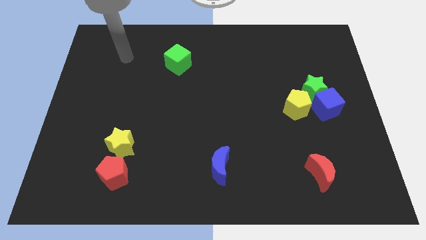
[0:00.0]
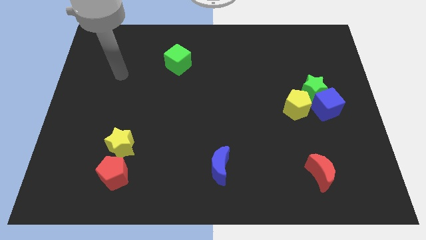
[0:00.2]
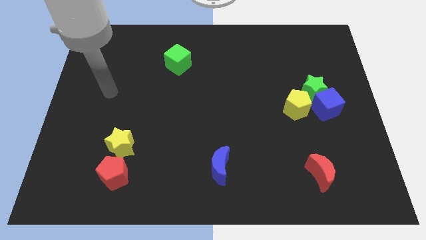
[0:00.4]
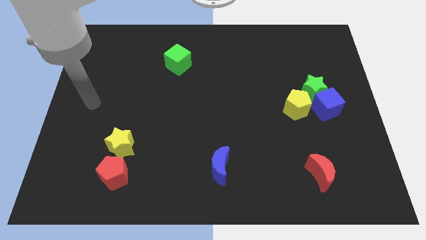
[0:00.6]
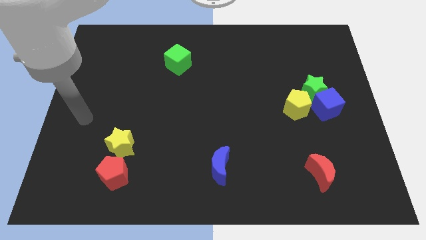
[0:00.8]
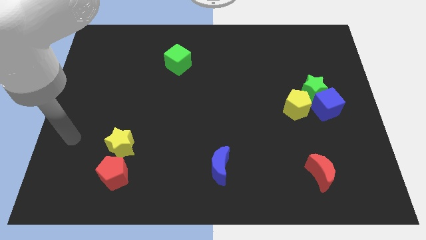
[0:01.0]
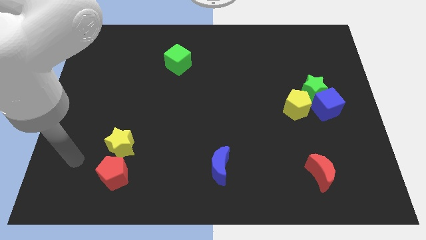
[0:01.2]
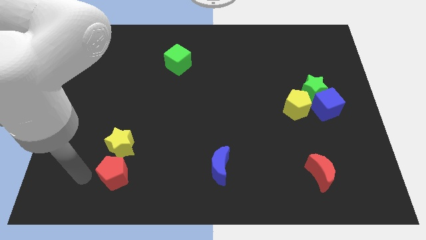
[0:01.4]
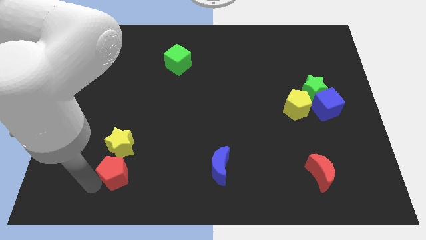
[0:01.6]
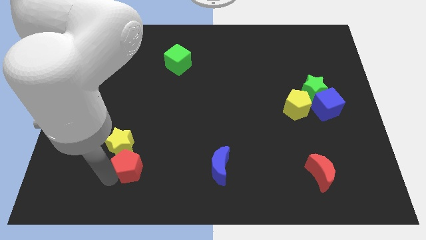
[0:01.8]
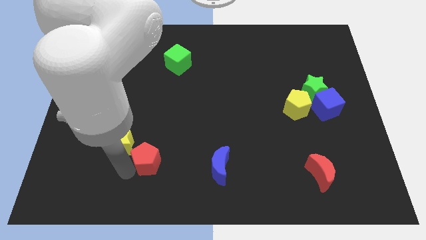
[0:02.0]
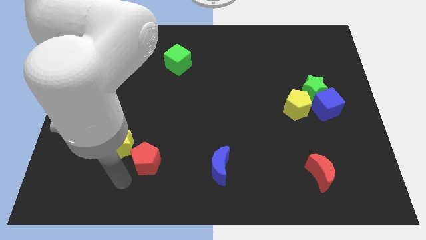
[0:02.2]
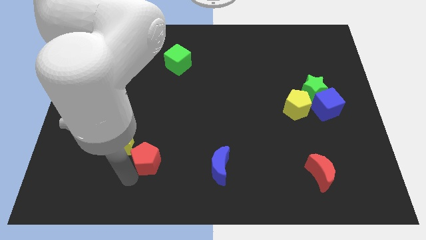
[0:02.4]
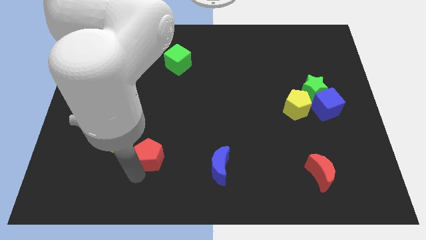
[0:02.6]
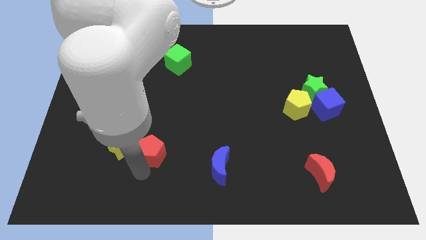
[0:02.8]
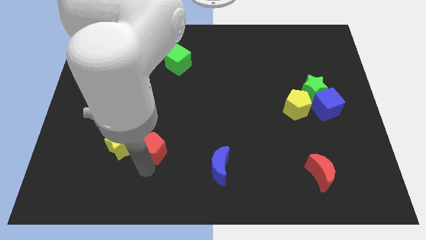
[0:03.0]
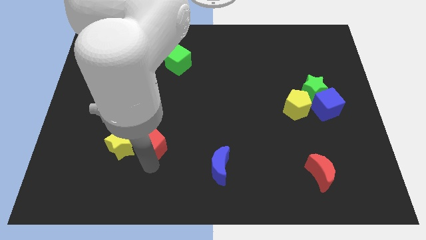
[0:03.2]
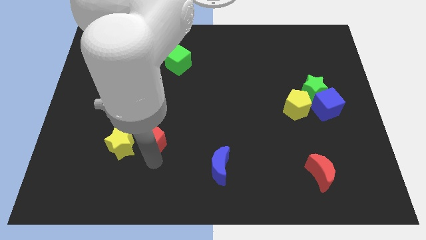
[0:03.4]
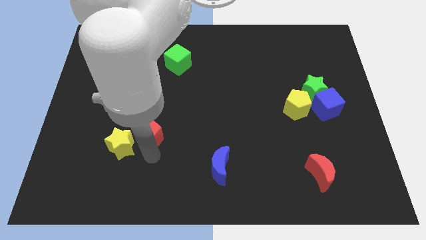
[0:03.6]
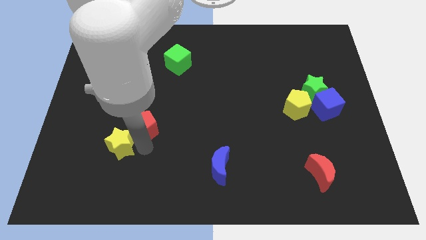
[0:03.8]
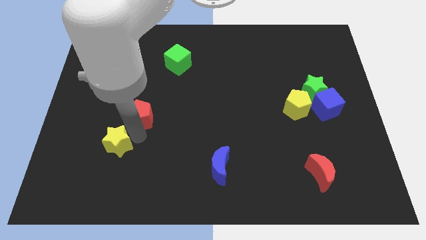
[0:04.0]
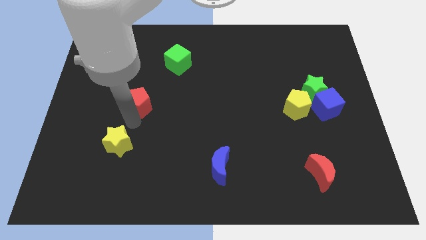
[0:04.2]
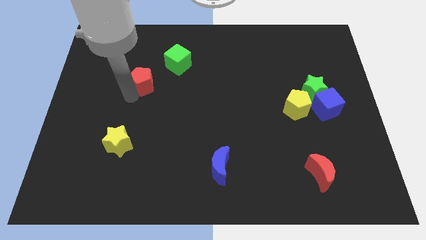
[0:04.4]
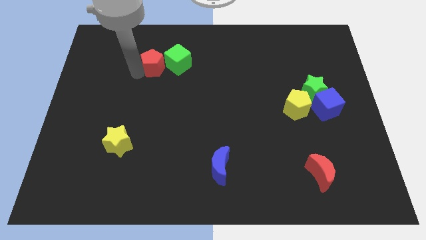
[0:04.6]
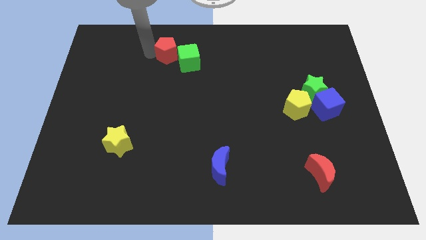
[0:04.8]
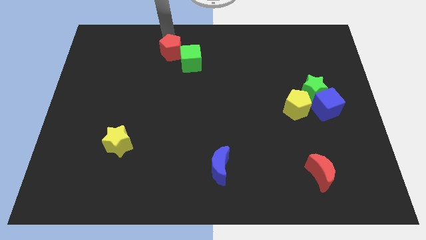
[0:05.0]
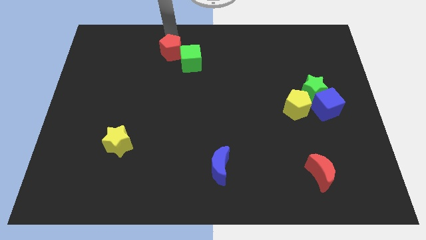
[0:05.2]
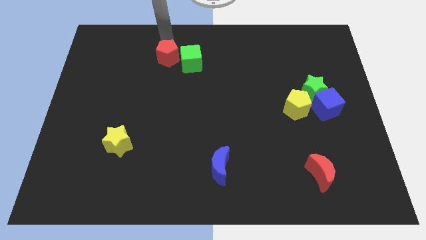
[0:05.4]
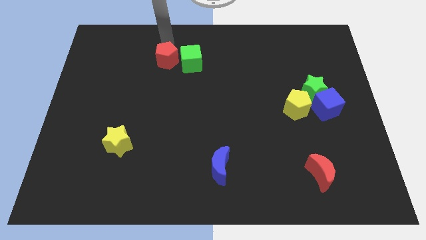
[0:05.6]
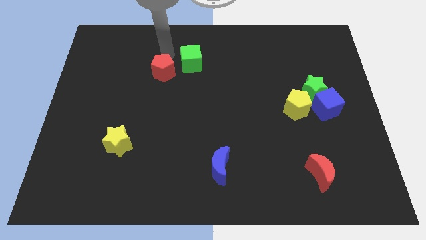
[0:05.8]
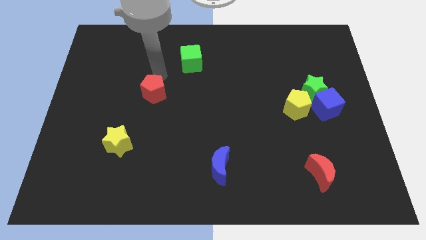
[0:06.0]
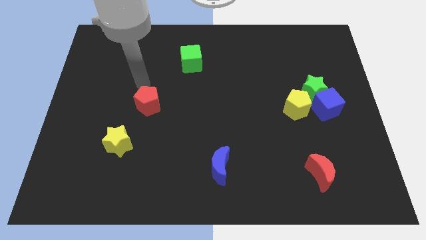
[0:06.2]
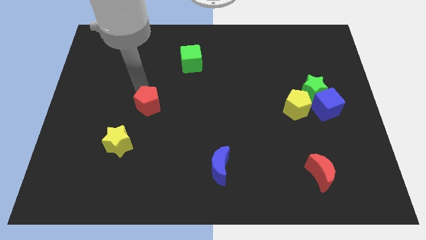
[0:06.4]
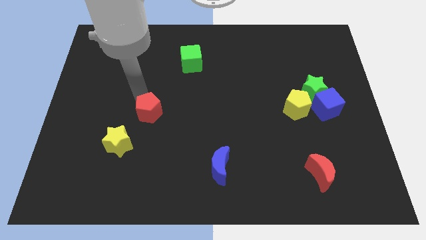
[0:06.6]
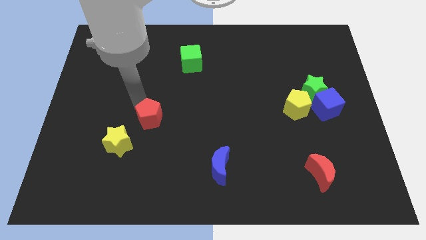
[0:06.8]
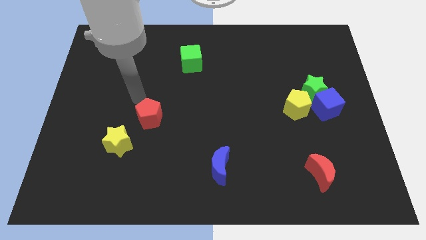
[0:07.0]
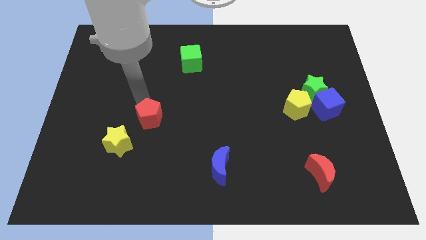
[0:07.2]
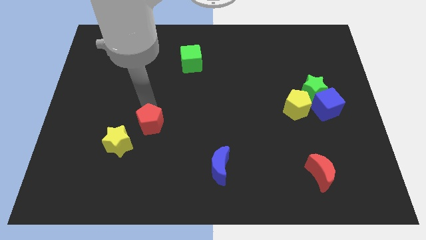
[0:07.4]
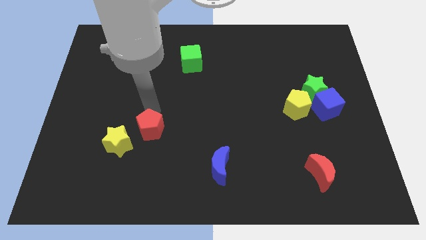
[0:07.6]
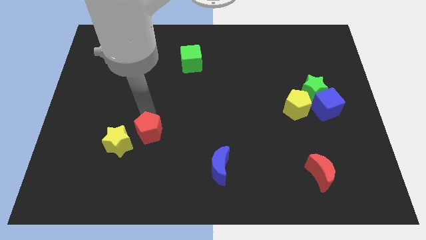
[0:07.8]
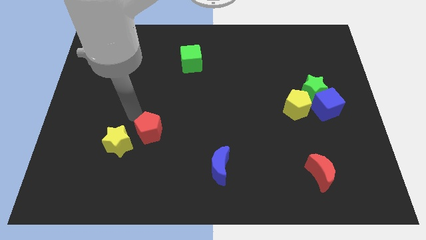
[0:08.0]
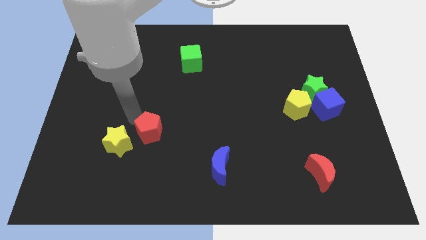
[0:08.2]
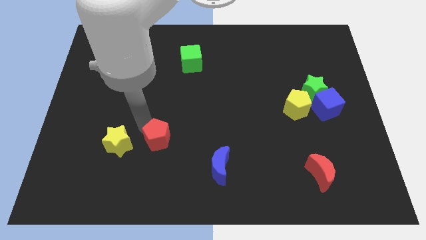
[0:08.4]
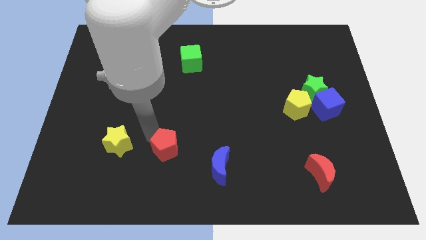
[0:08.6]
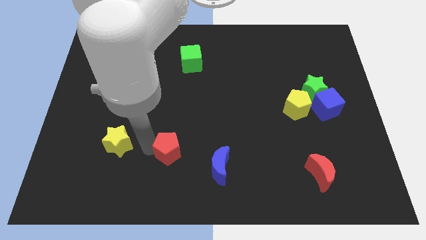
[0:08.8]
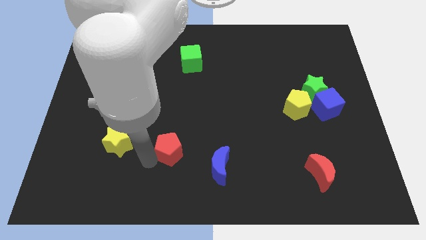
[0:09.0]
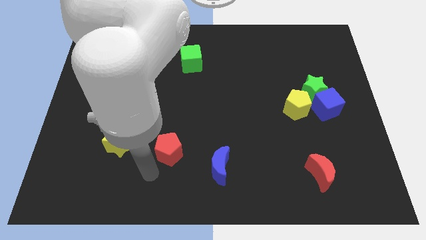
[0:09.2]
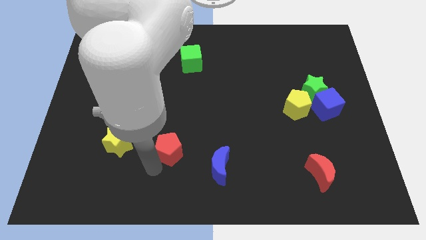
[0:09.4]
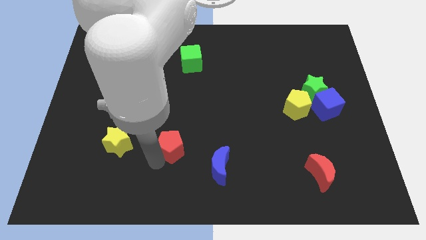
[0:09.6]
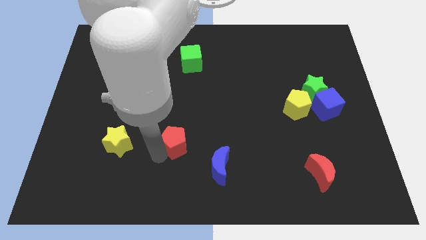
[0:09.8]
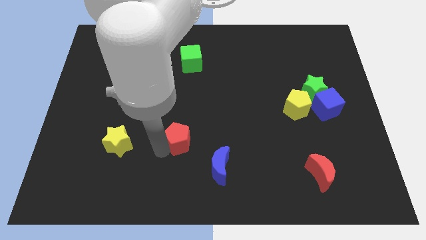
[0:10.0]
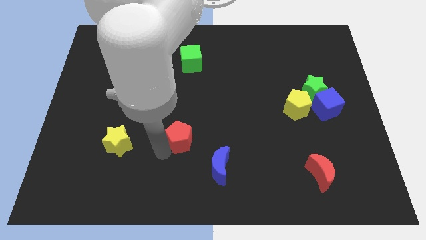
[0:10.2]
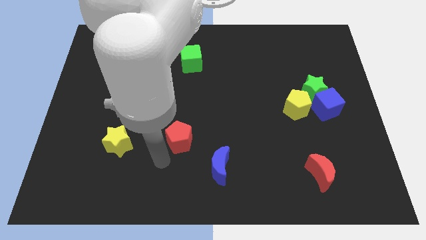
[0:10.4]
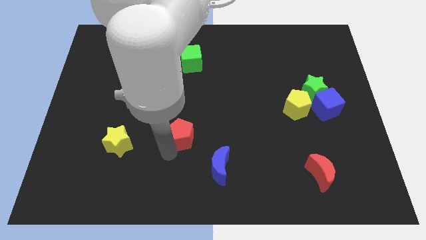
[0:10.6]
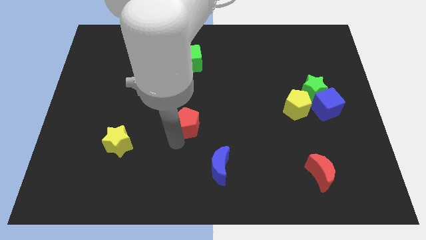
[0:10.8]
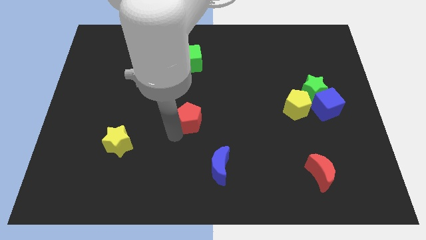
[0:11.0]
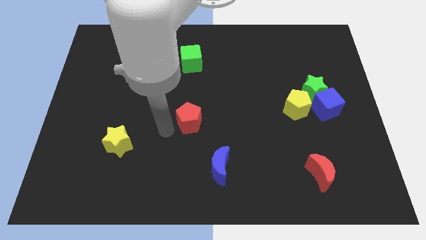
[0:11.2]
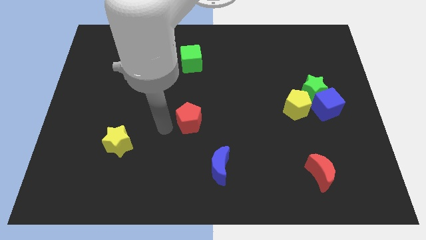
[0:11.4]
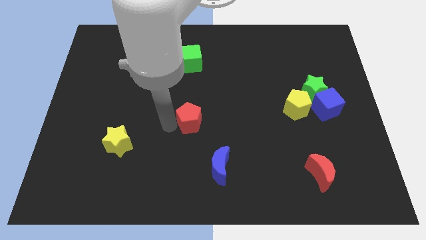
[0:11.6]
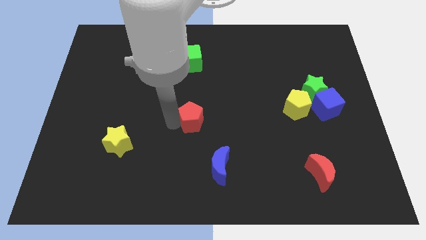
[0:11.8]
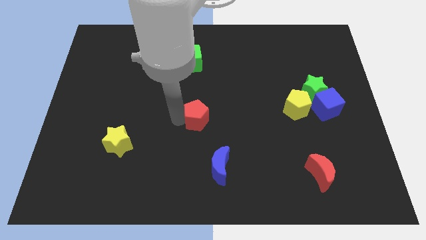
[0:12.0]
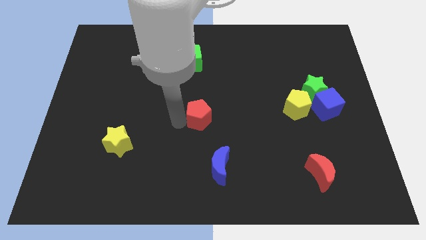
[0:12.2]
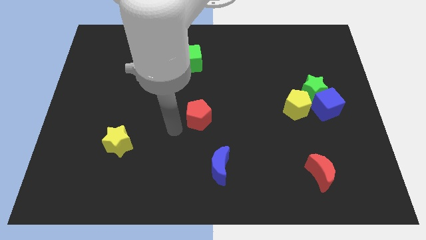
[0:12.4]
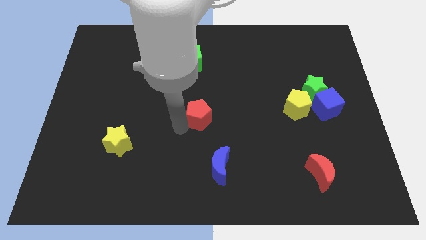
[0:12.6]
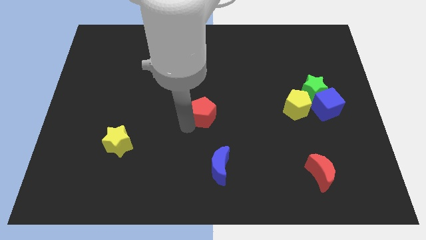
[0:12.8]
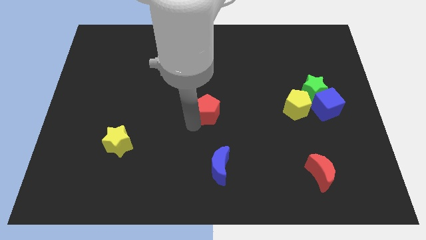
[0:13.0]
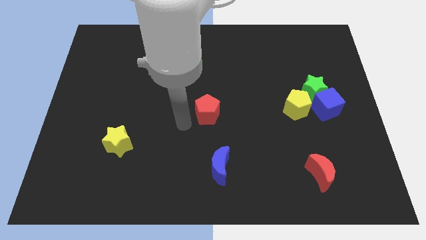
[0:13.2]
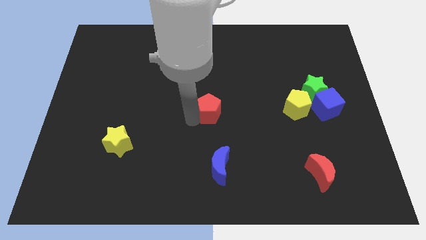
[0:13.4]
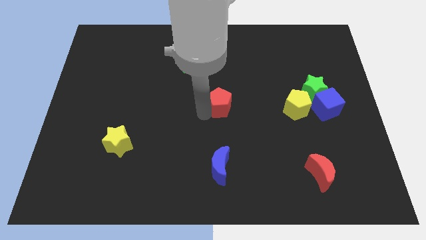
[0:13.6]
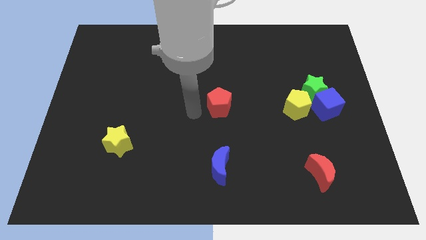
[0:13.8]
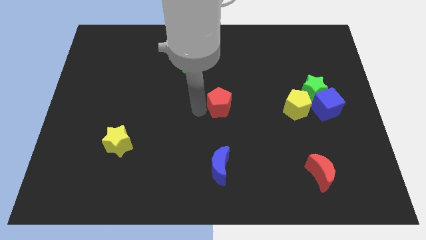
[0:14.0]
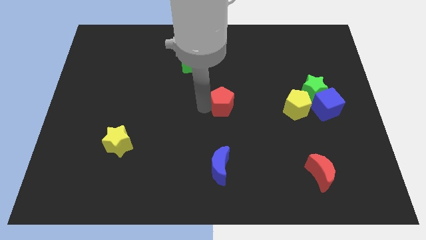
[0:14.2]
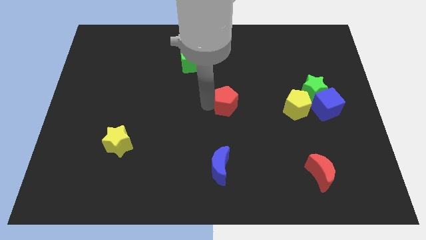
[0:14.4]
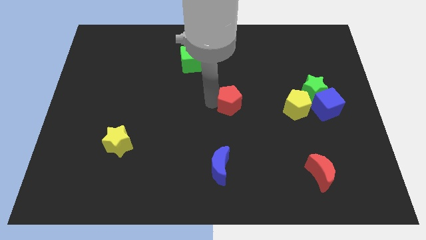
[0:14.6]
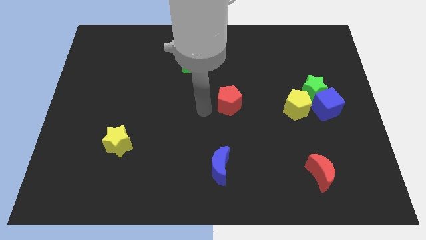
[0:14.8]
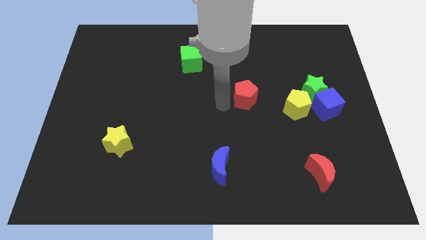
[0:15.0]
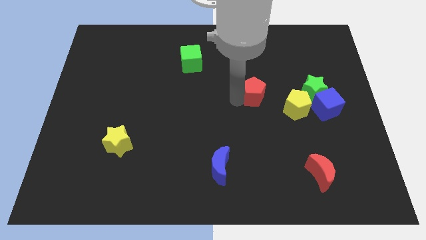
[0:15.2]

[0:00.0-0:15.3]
move the red pentagon diagonally up and to the left of the yellow pentagon
